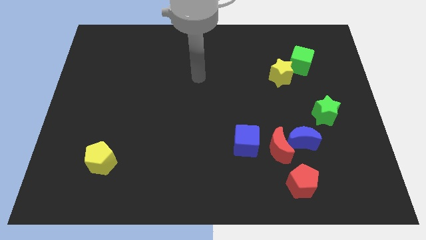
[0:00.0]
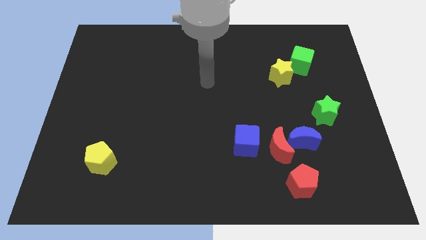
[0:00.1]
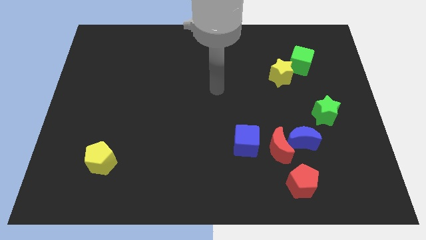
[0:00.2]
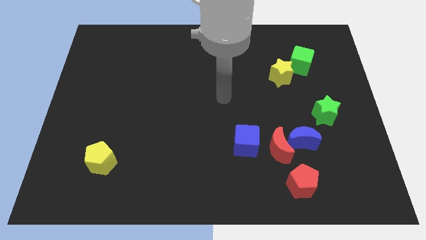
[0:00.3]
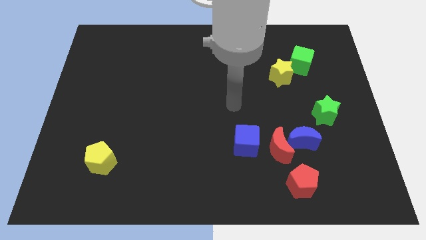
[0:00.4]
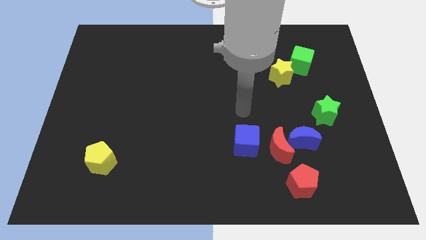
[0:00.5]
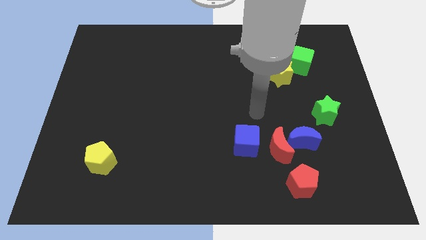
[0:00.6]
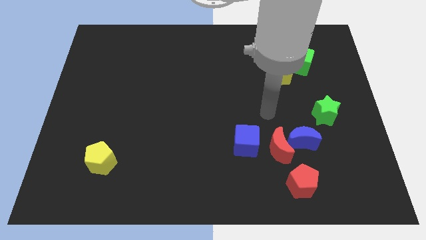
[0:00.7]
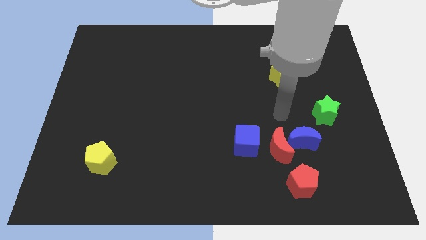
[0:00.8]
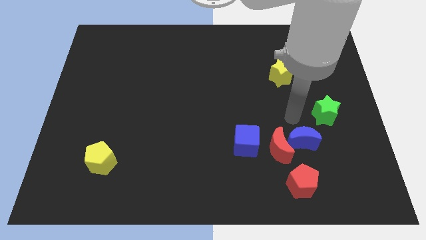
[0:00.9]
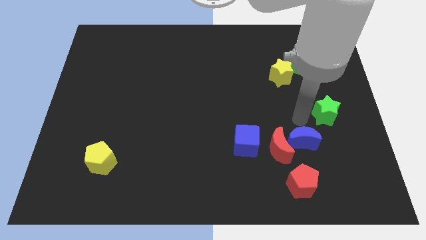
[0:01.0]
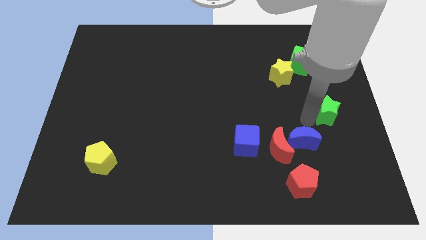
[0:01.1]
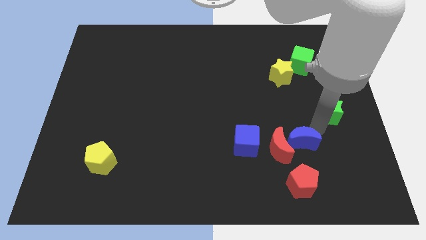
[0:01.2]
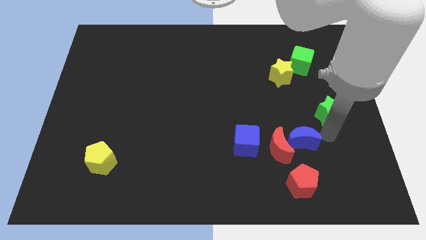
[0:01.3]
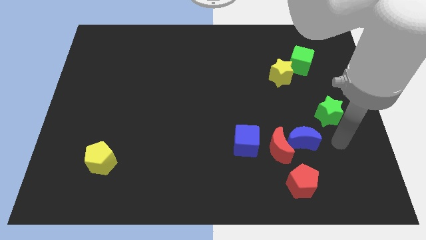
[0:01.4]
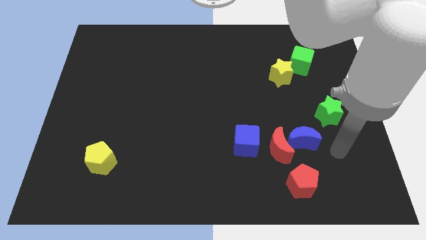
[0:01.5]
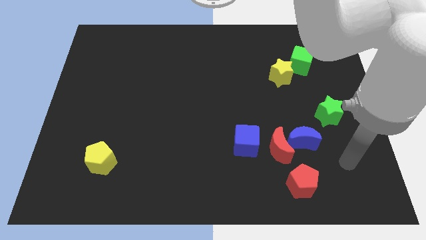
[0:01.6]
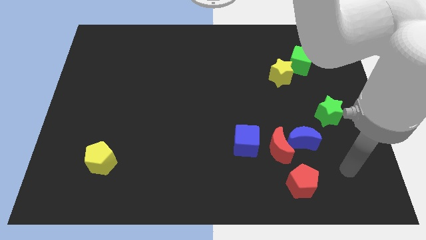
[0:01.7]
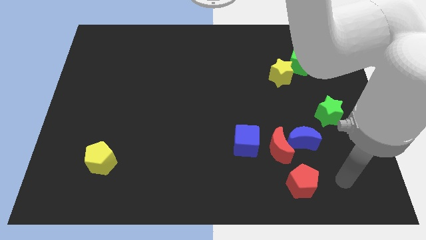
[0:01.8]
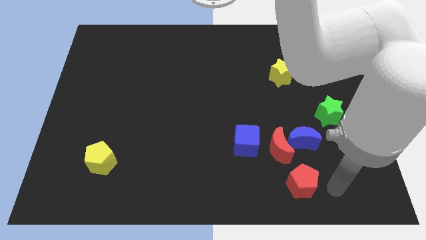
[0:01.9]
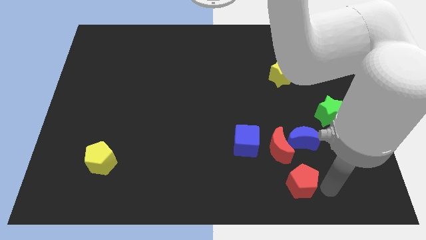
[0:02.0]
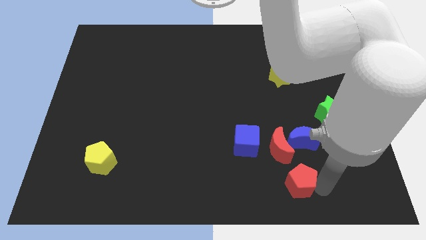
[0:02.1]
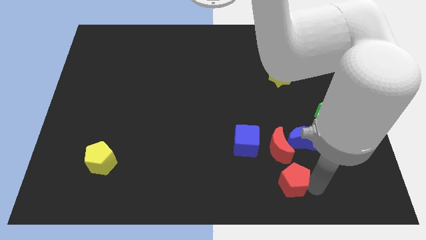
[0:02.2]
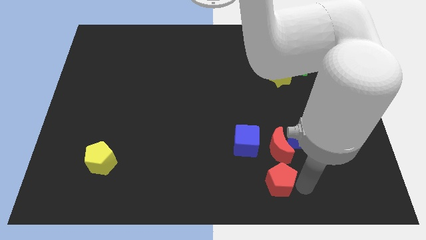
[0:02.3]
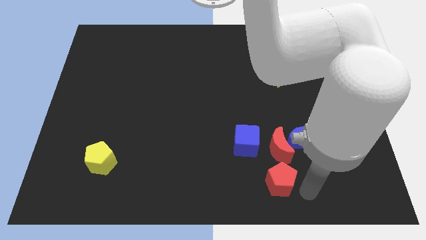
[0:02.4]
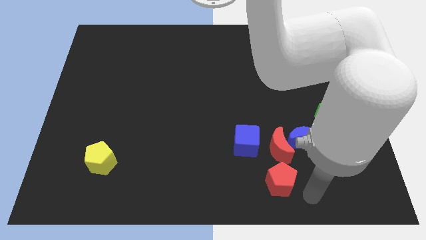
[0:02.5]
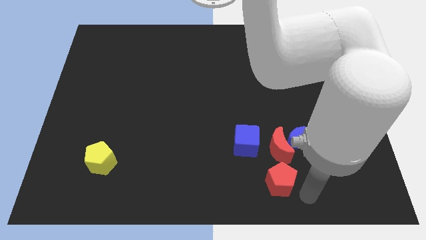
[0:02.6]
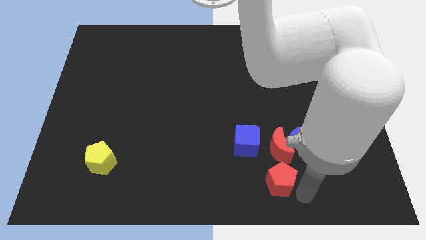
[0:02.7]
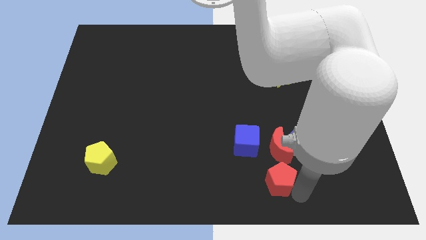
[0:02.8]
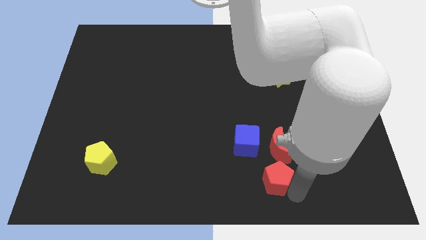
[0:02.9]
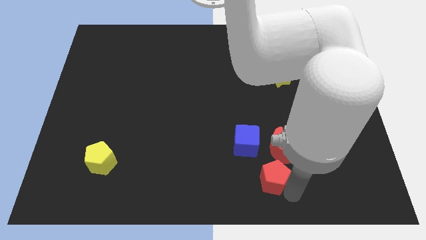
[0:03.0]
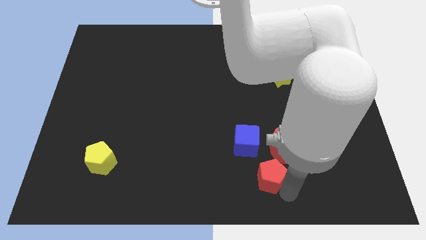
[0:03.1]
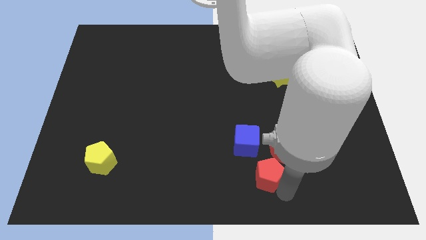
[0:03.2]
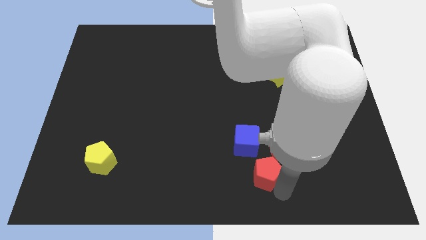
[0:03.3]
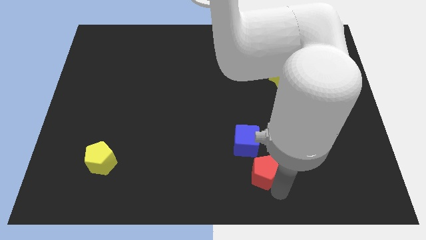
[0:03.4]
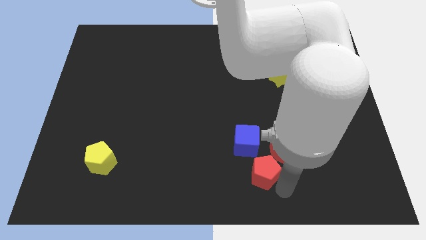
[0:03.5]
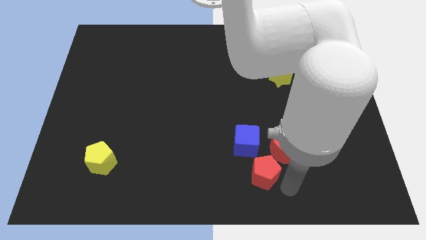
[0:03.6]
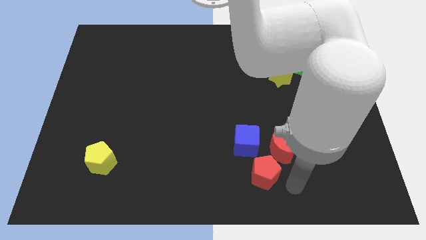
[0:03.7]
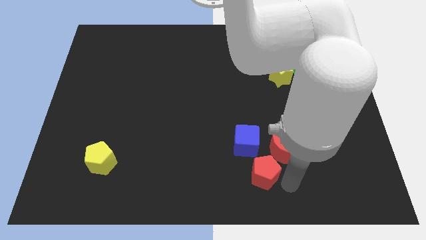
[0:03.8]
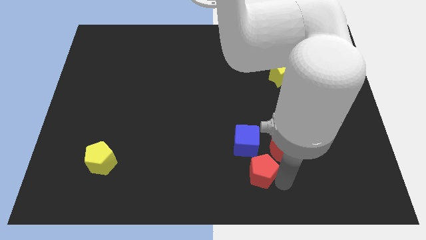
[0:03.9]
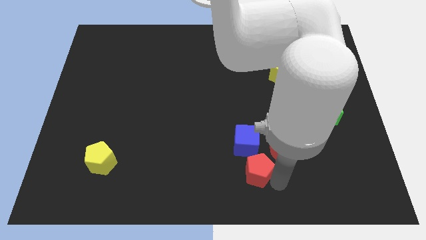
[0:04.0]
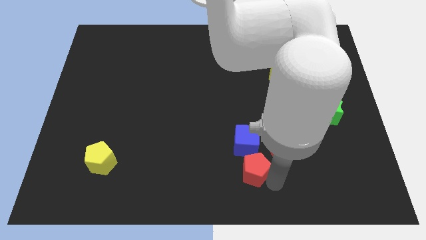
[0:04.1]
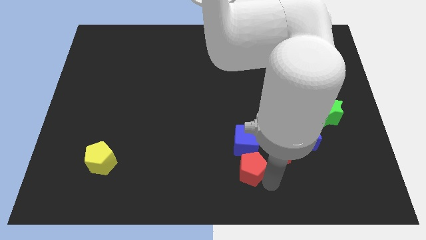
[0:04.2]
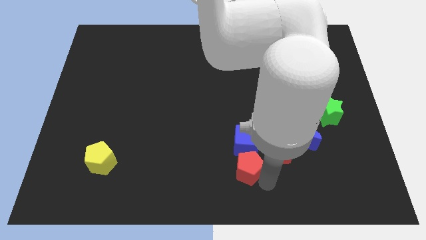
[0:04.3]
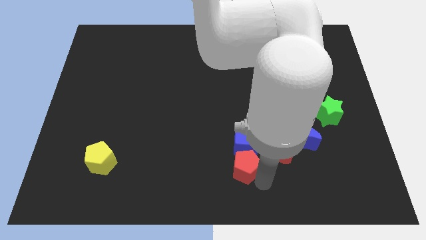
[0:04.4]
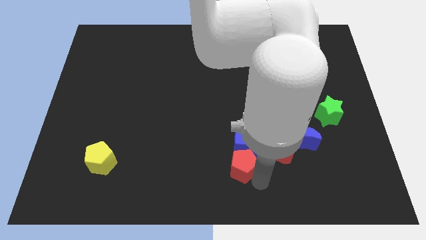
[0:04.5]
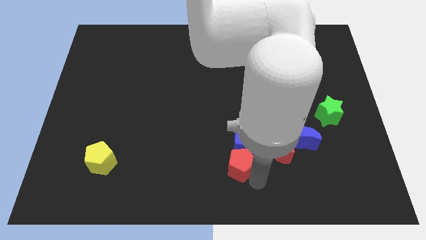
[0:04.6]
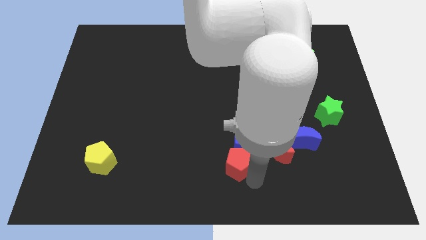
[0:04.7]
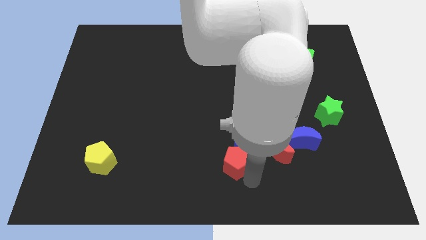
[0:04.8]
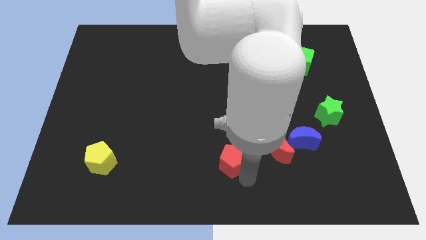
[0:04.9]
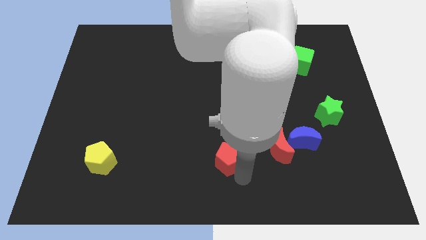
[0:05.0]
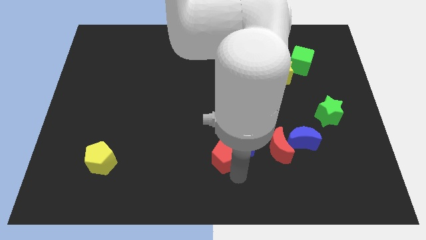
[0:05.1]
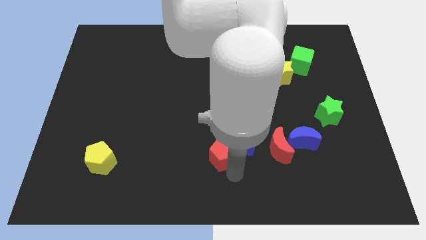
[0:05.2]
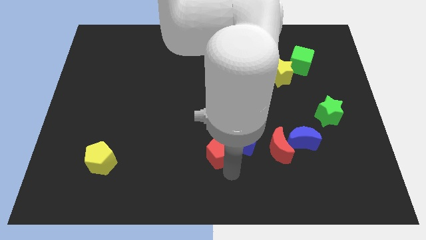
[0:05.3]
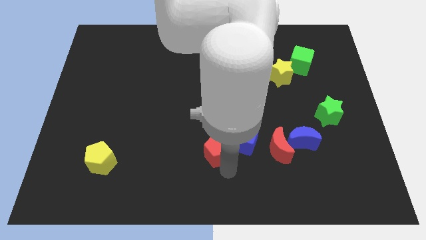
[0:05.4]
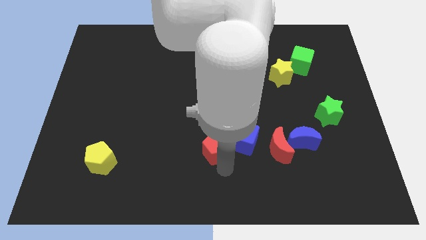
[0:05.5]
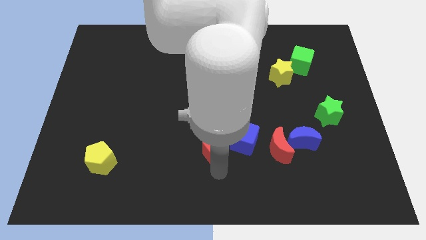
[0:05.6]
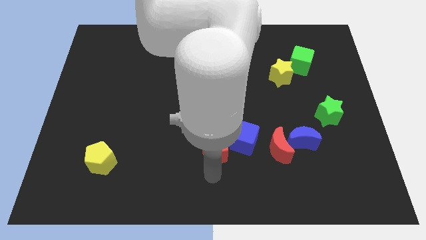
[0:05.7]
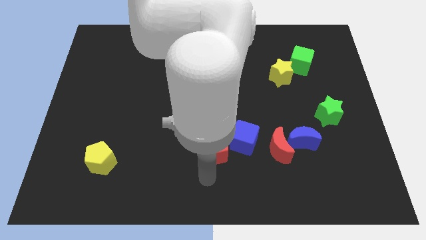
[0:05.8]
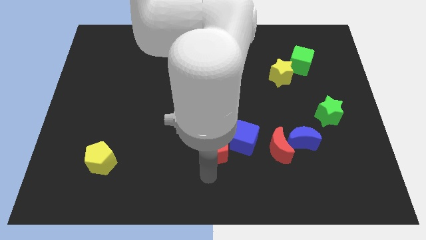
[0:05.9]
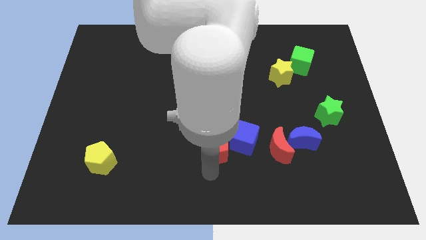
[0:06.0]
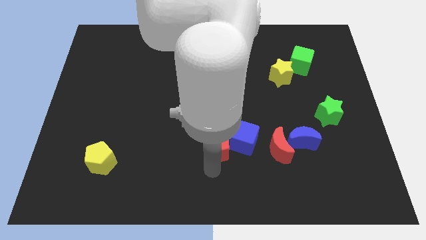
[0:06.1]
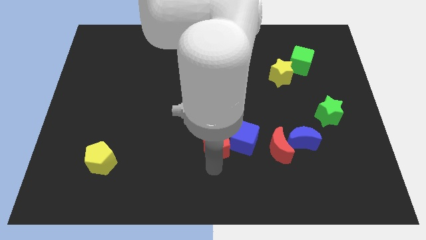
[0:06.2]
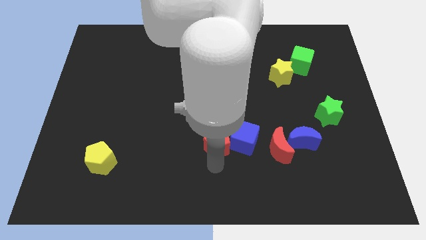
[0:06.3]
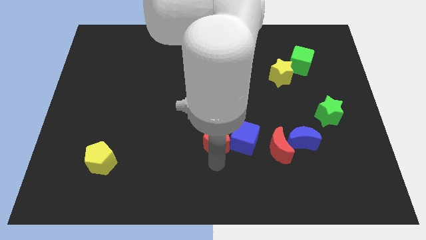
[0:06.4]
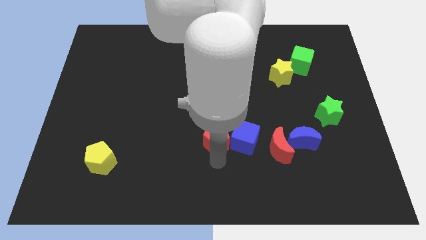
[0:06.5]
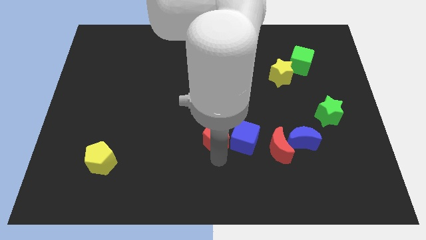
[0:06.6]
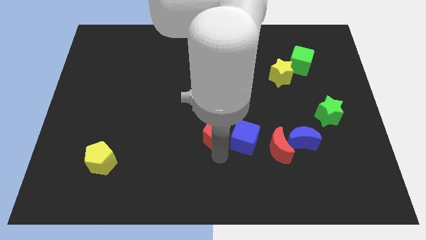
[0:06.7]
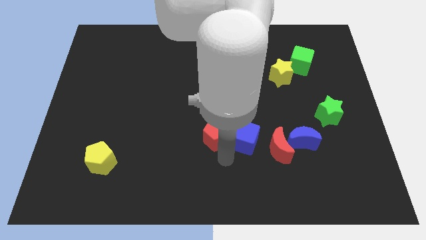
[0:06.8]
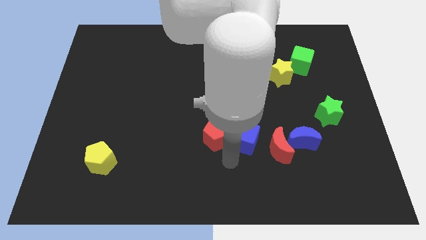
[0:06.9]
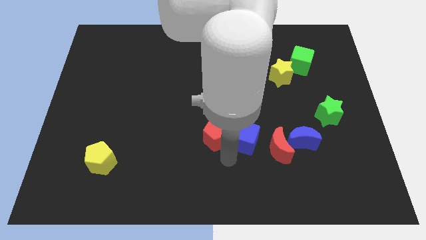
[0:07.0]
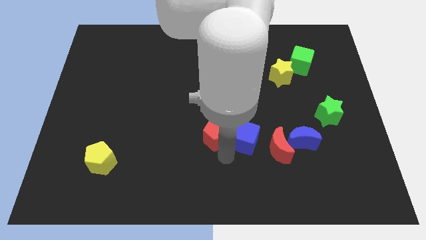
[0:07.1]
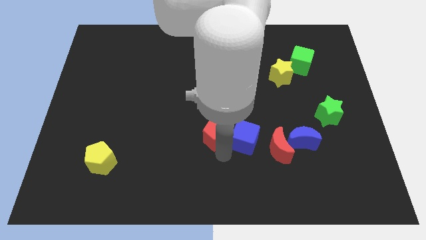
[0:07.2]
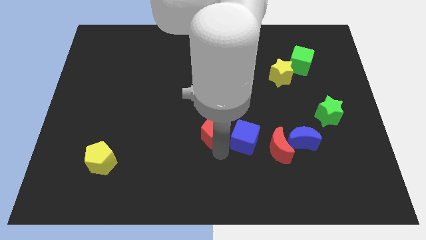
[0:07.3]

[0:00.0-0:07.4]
slide the red pentagon upwards and then to the left

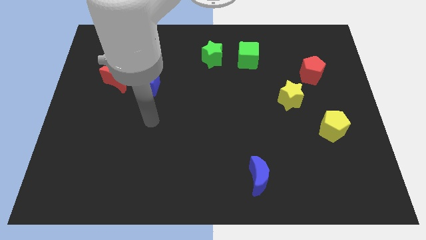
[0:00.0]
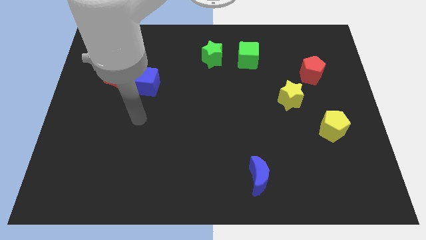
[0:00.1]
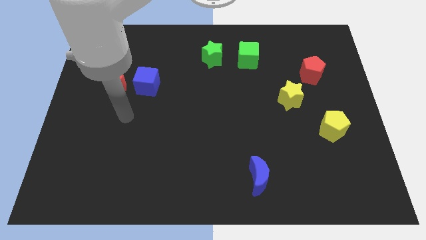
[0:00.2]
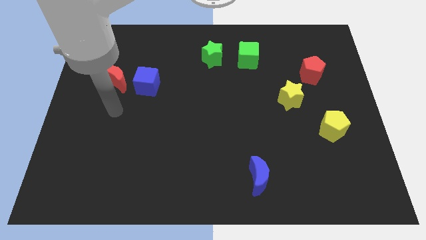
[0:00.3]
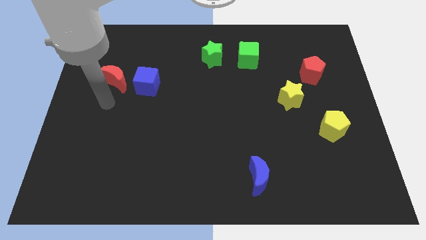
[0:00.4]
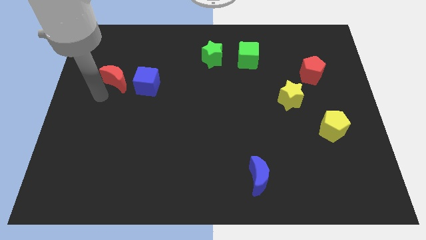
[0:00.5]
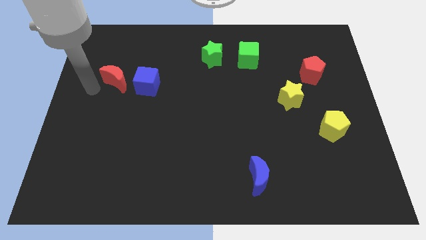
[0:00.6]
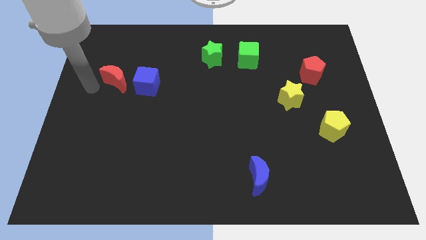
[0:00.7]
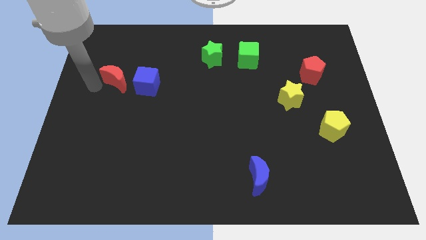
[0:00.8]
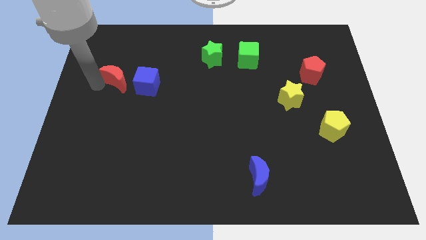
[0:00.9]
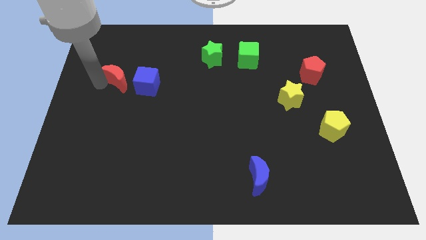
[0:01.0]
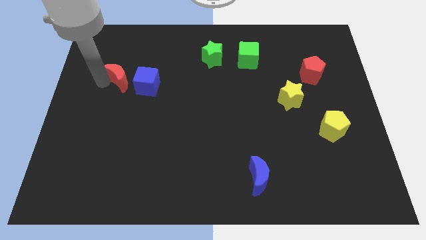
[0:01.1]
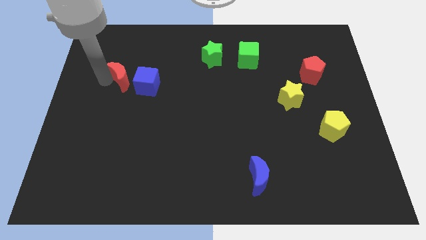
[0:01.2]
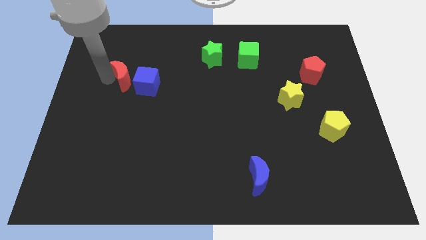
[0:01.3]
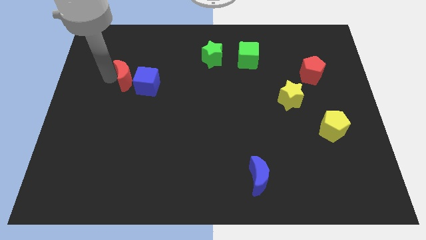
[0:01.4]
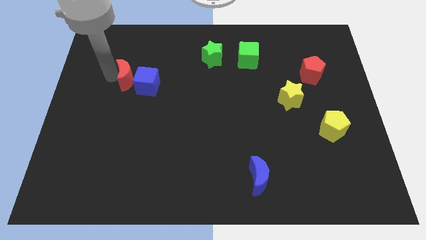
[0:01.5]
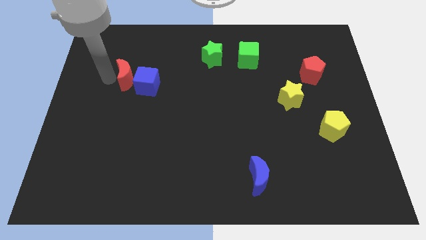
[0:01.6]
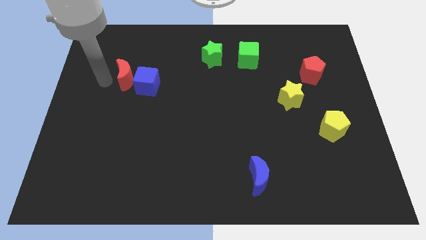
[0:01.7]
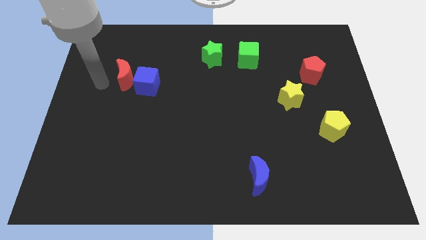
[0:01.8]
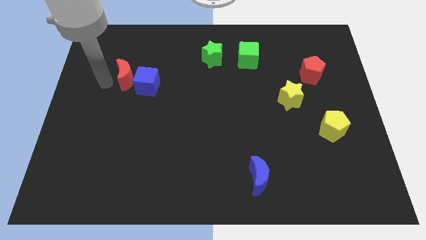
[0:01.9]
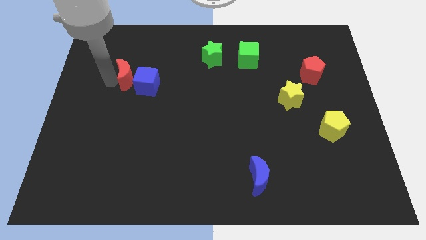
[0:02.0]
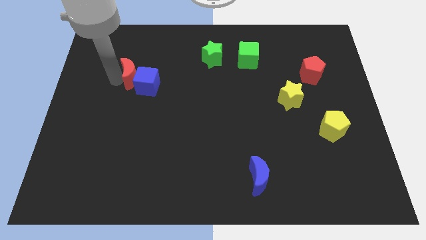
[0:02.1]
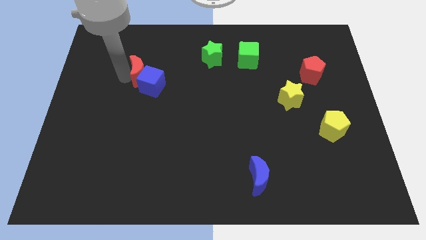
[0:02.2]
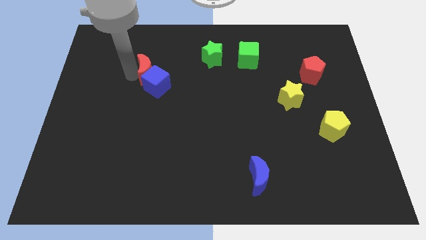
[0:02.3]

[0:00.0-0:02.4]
slightly move the red moon right
